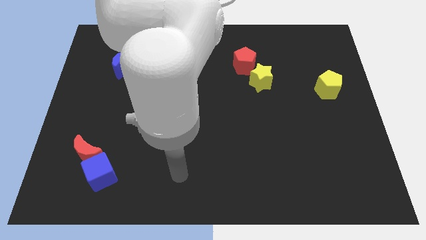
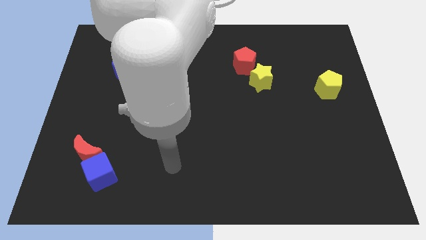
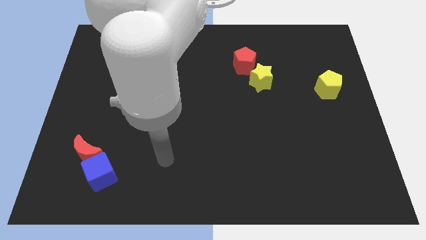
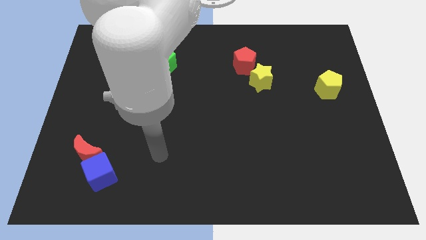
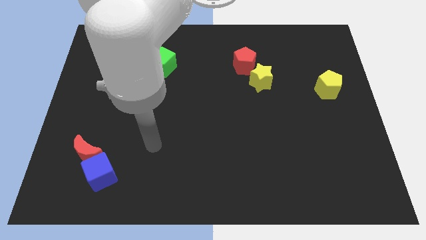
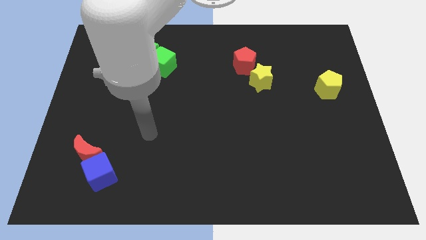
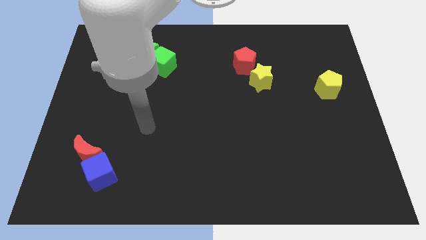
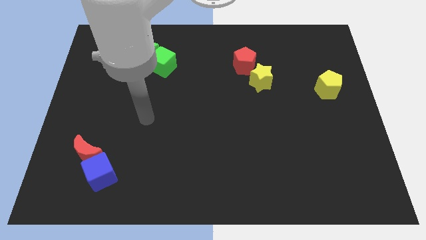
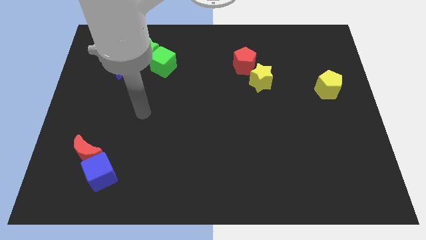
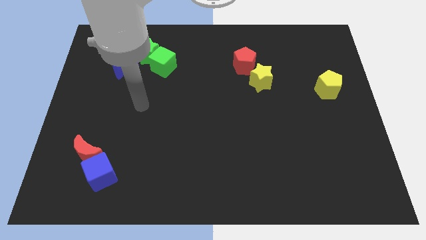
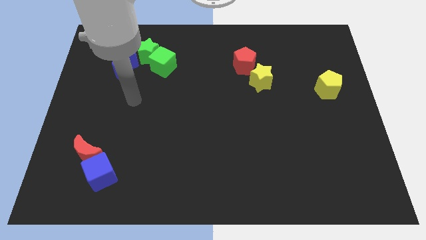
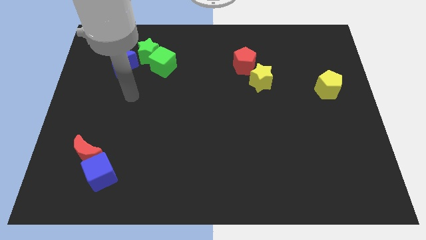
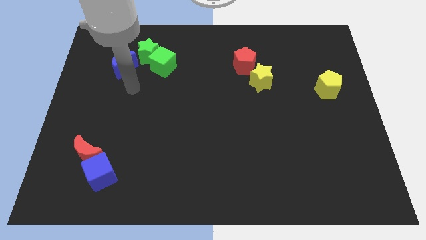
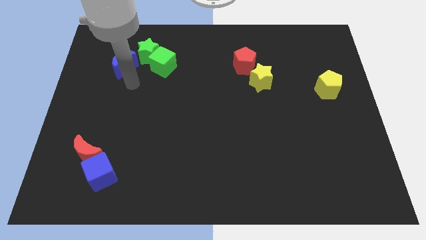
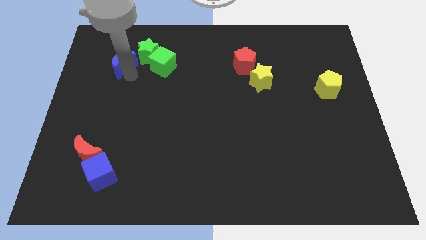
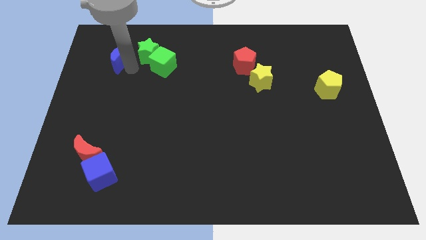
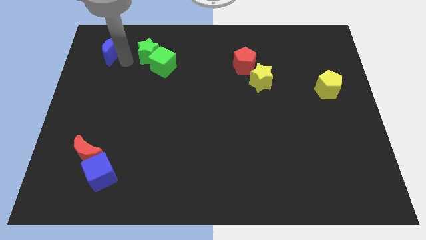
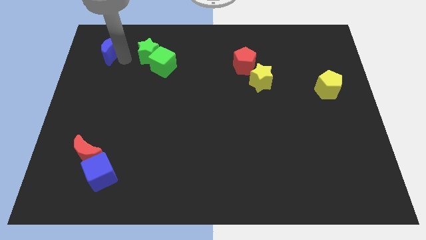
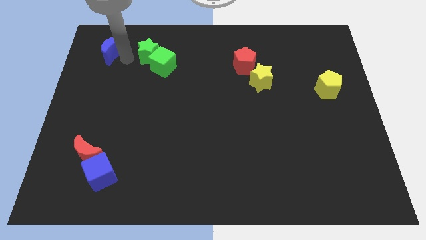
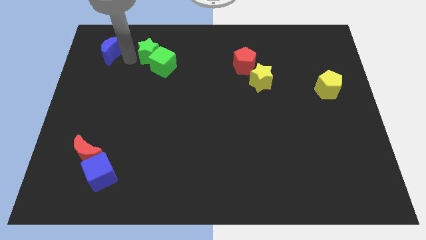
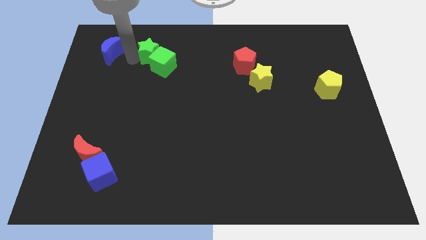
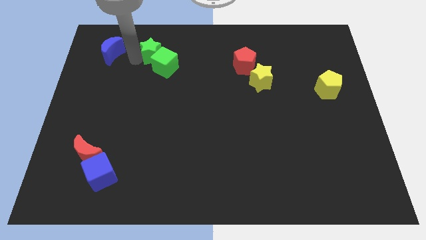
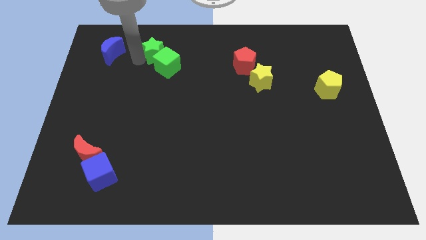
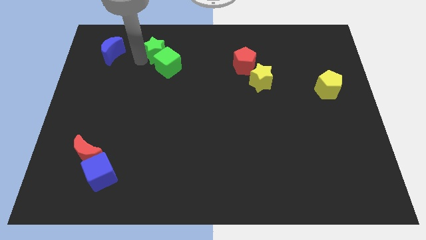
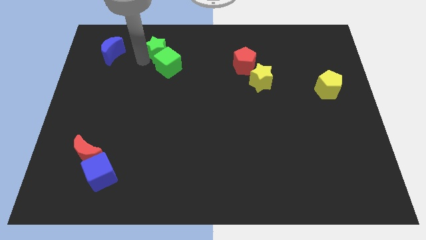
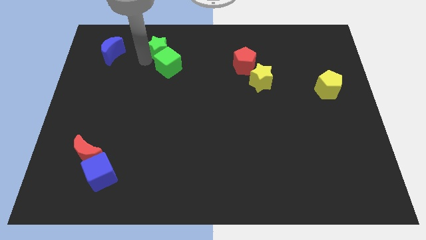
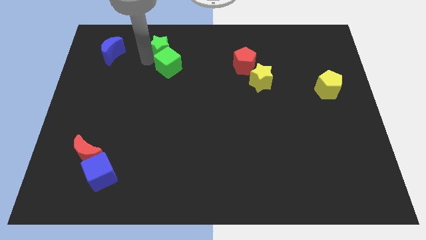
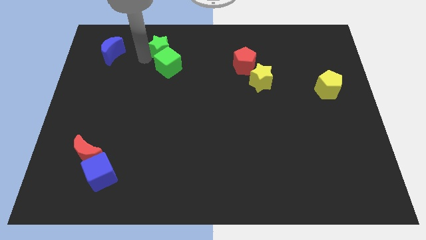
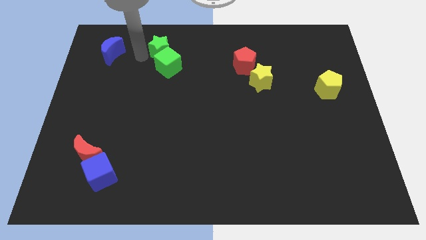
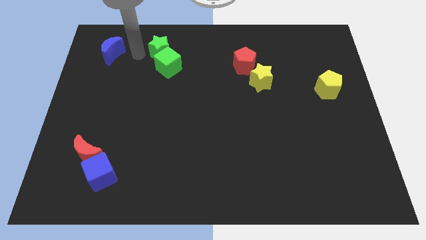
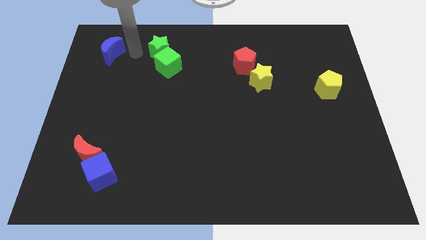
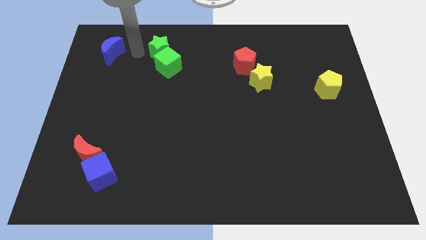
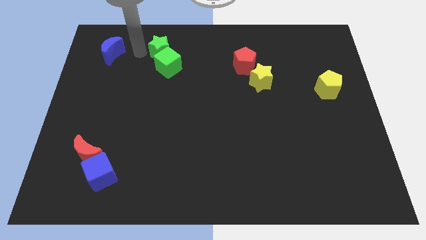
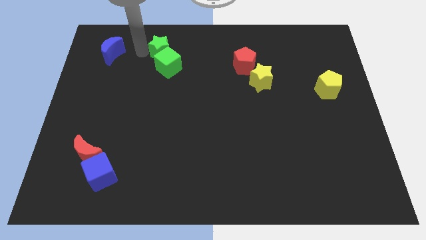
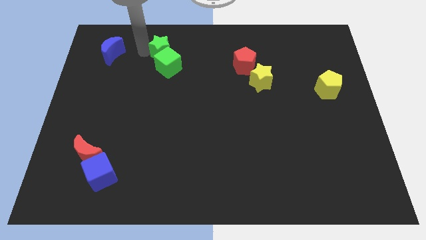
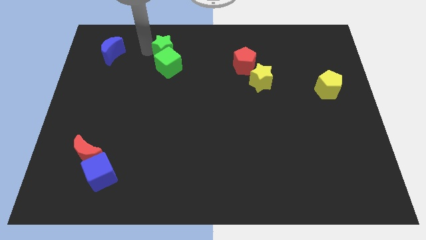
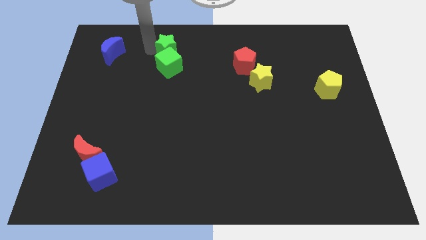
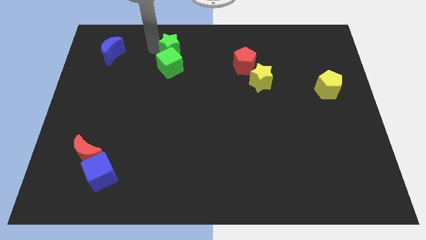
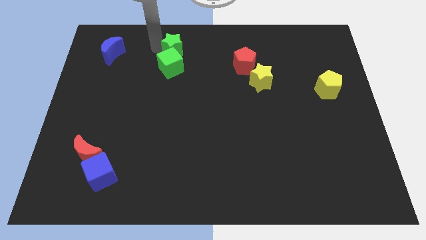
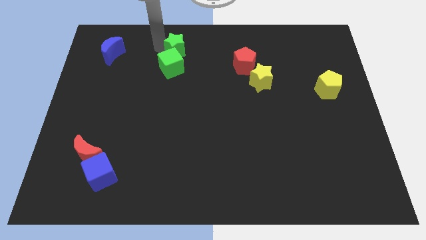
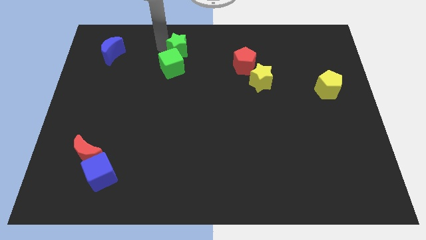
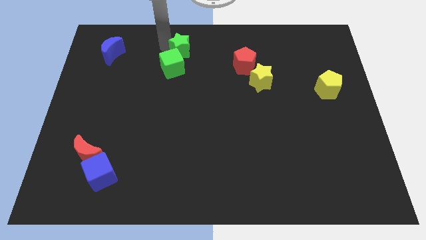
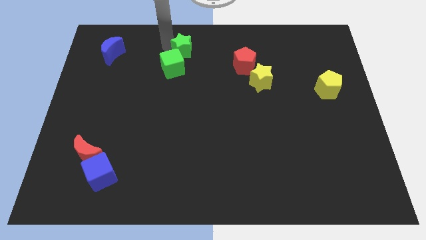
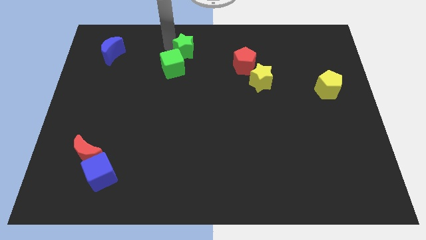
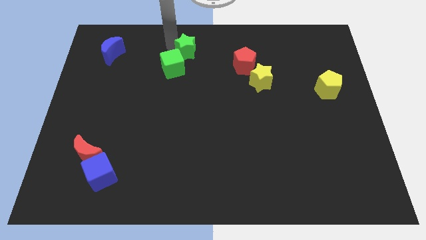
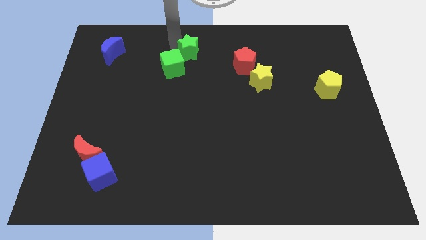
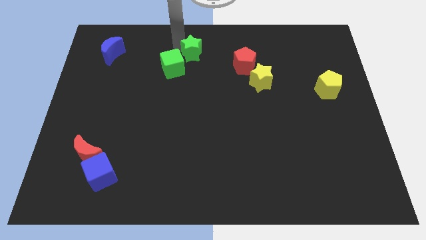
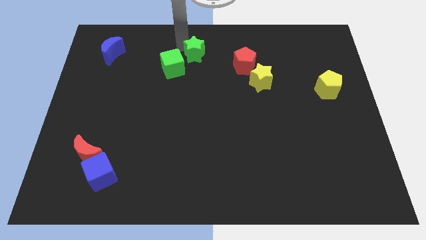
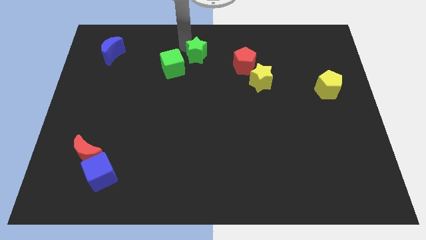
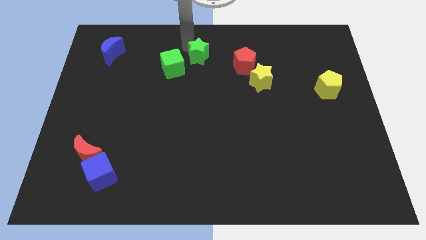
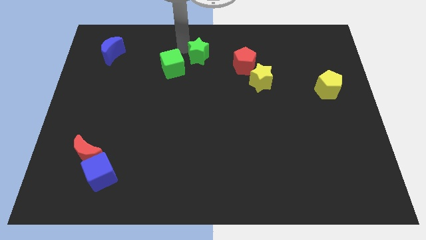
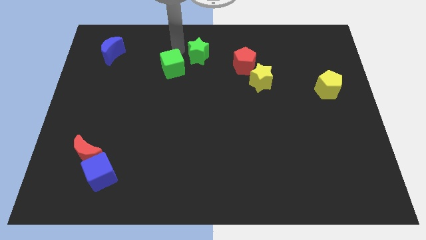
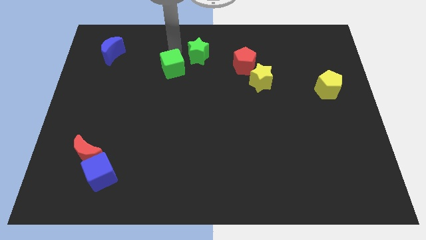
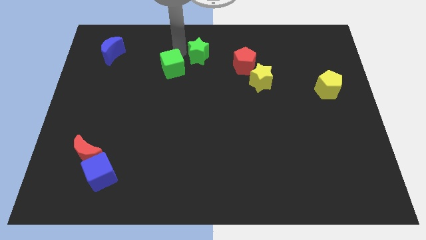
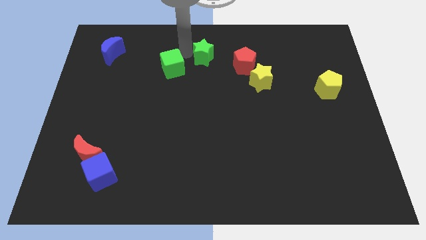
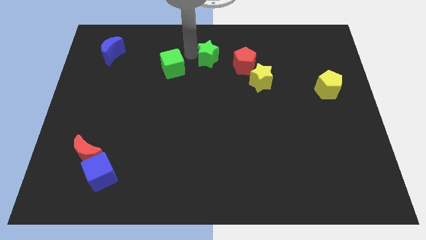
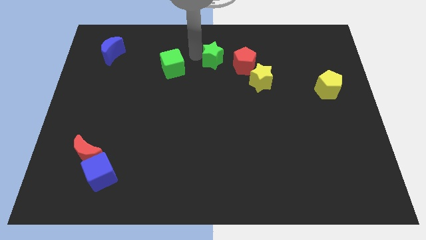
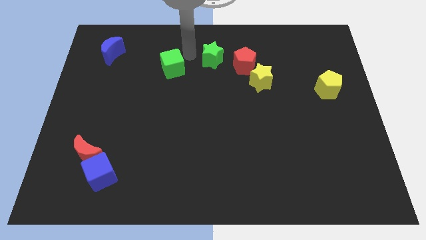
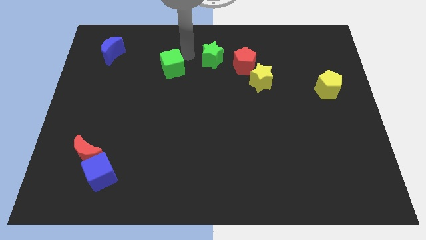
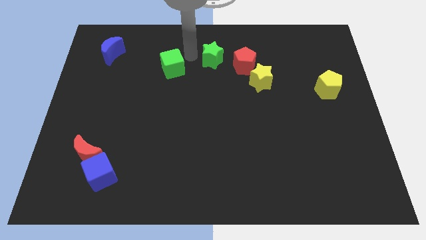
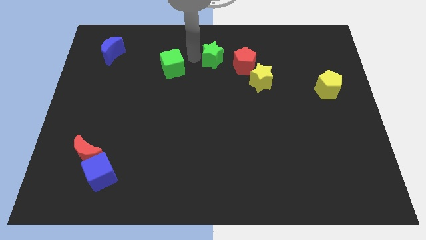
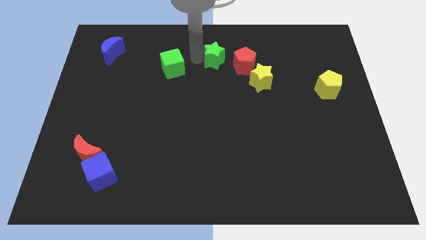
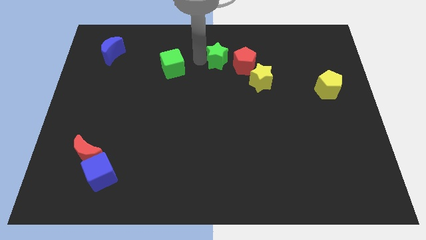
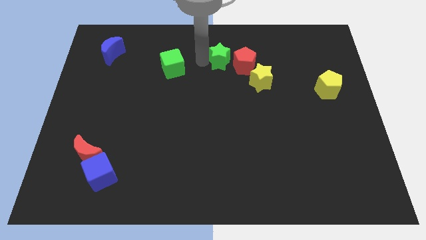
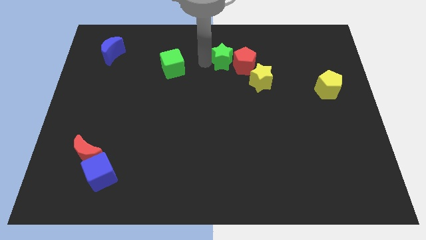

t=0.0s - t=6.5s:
slide the green star close to the red pentagon

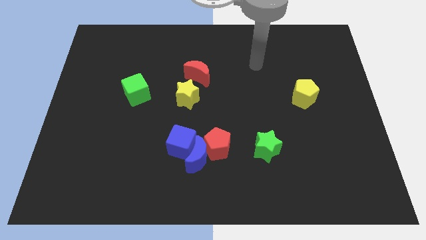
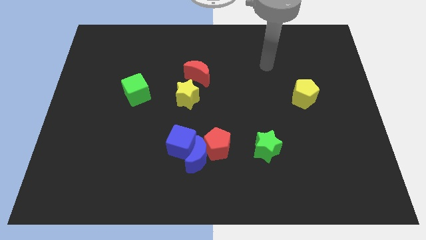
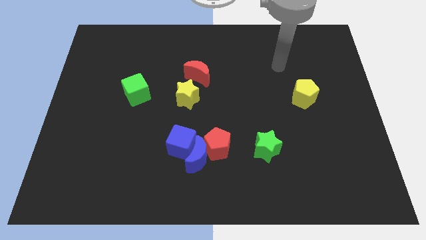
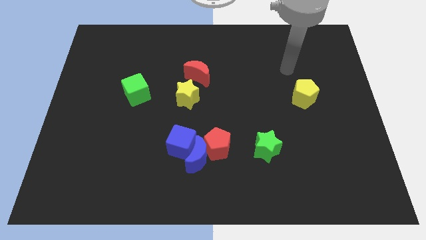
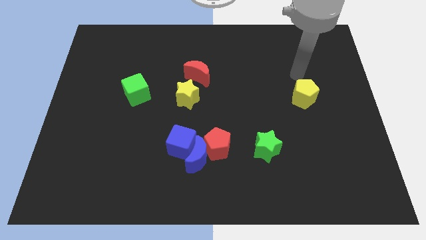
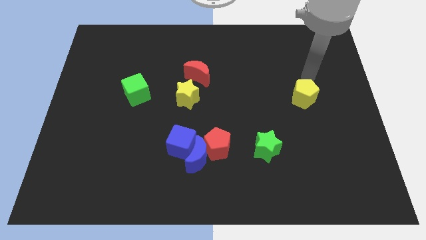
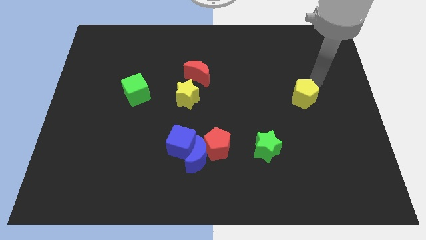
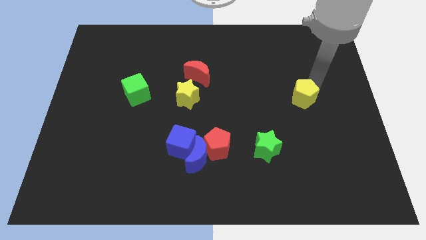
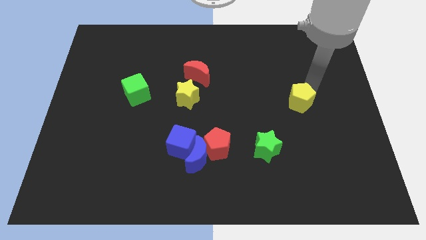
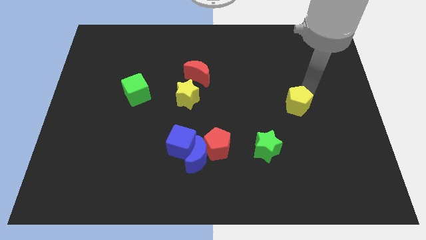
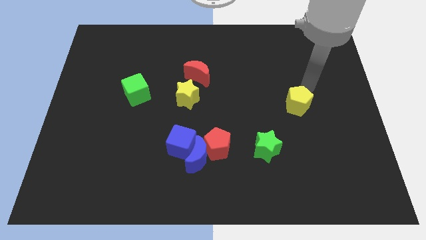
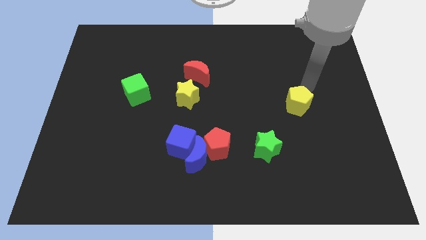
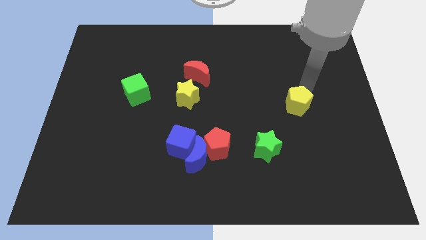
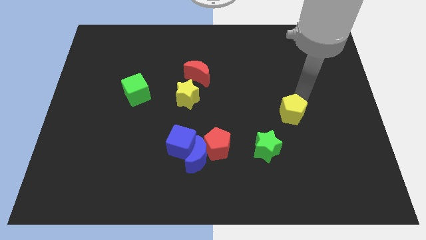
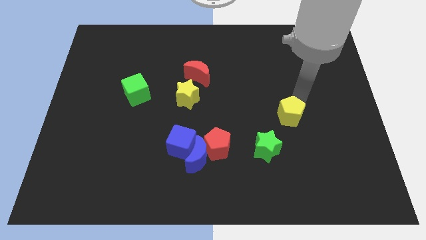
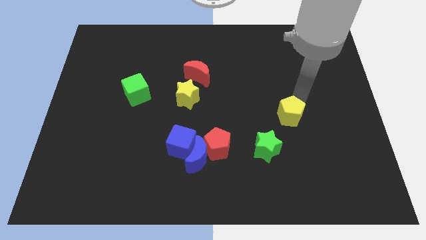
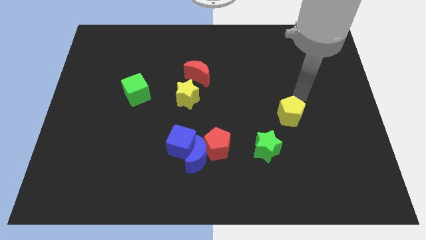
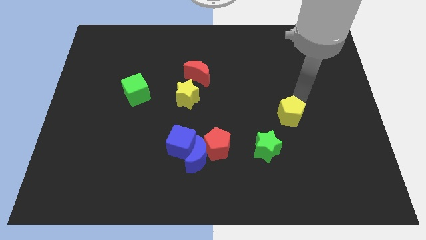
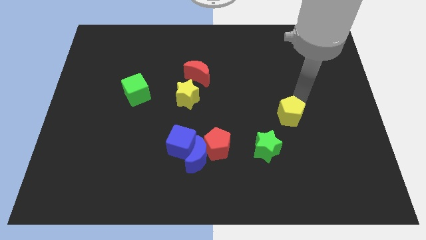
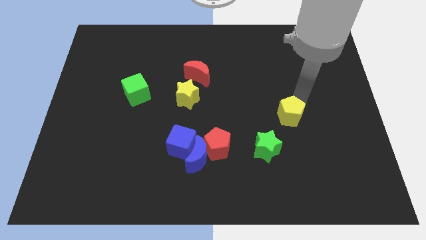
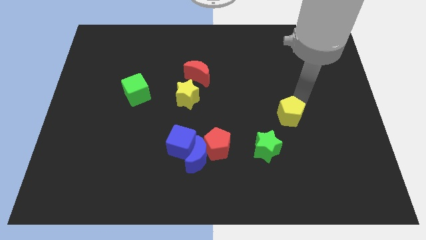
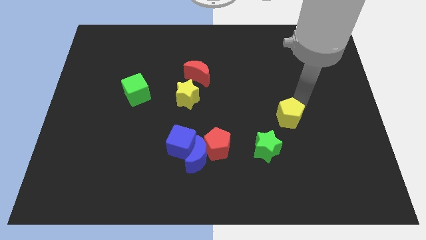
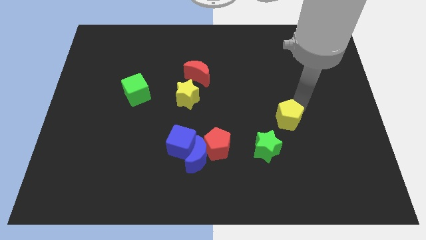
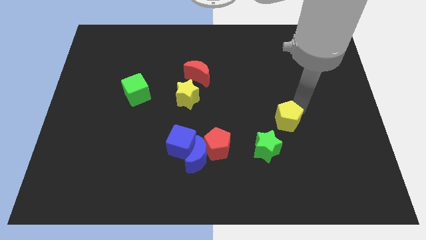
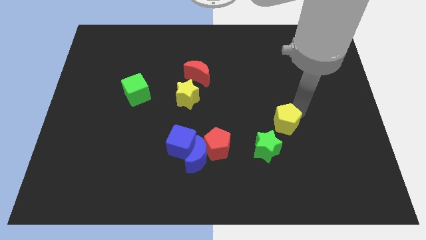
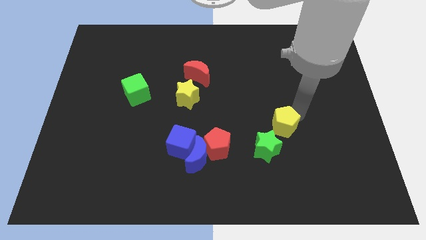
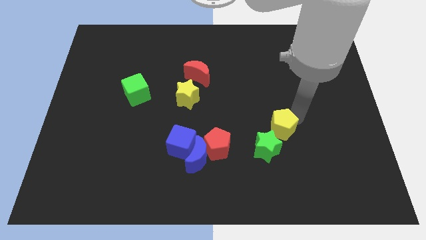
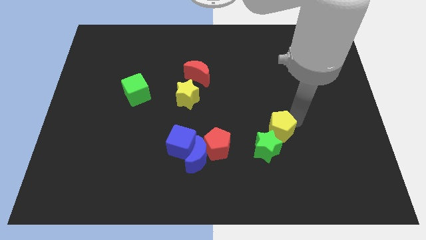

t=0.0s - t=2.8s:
put the yellow pentagon next to the green star
